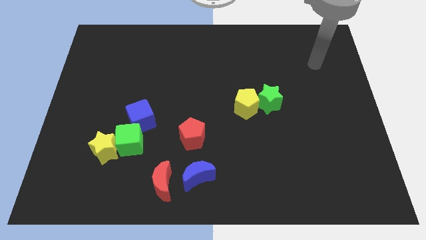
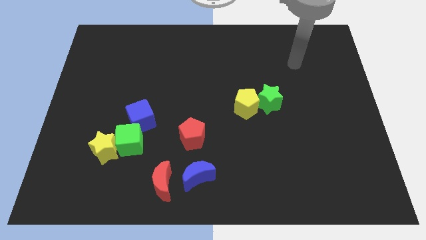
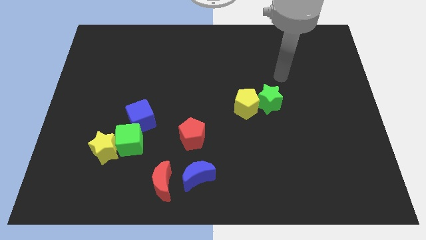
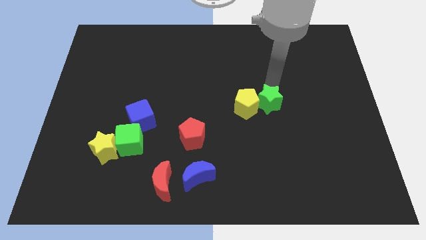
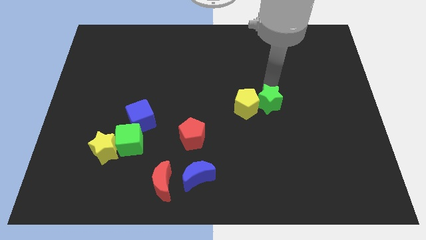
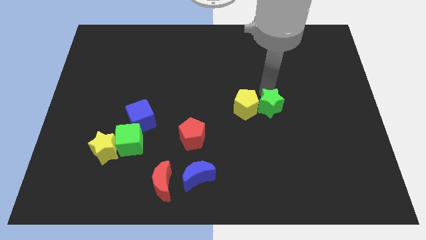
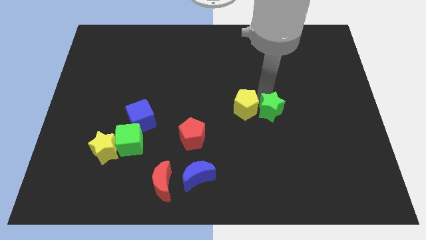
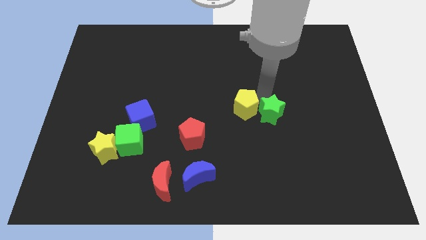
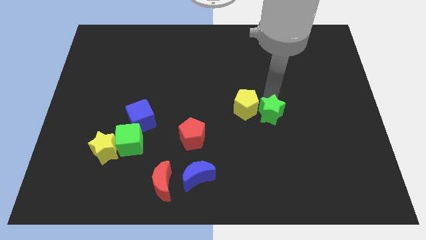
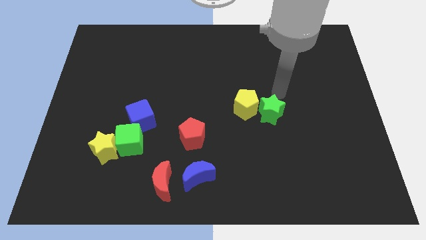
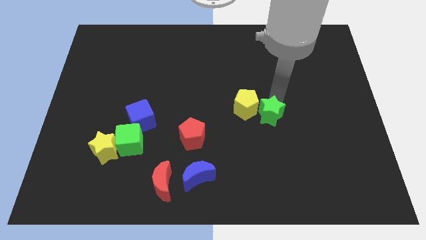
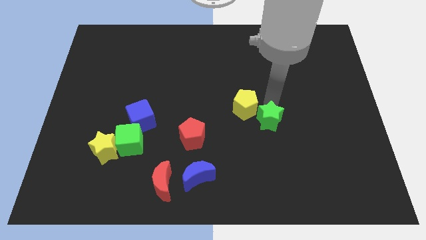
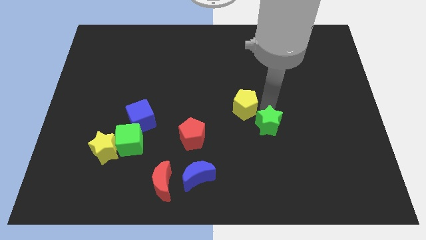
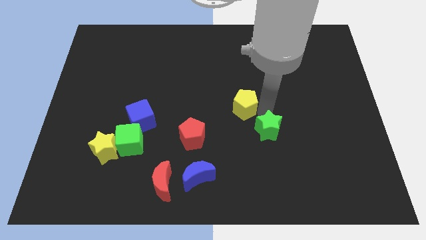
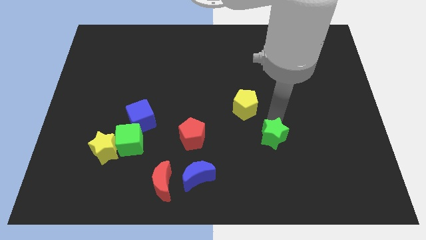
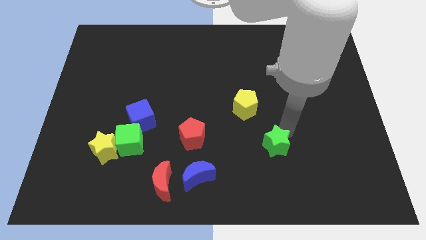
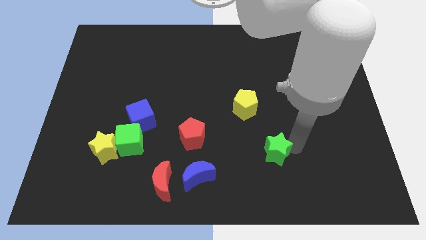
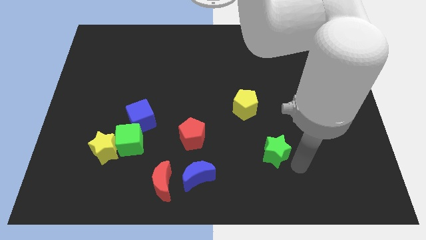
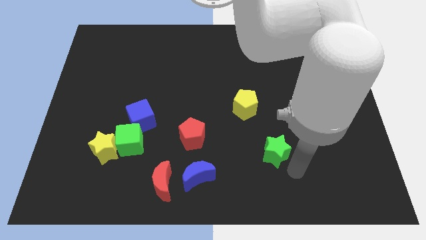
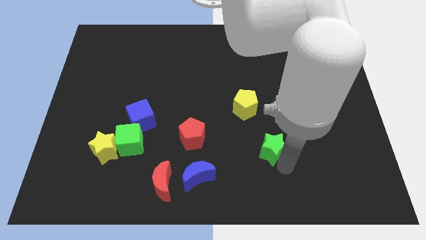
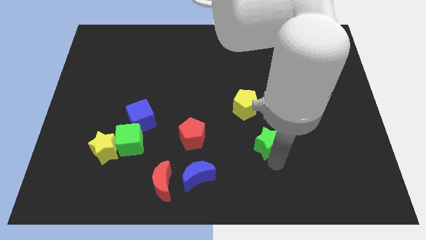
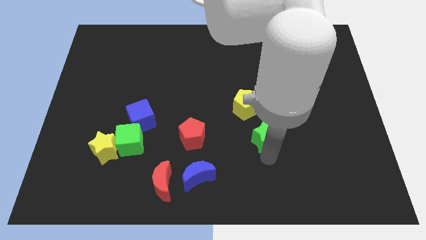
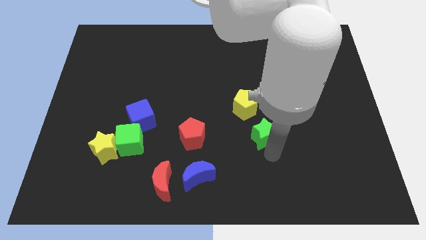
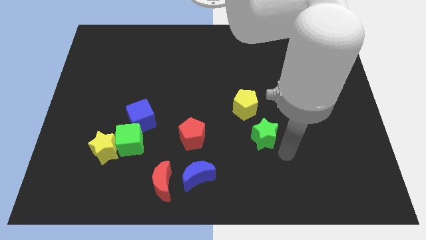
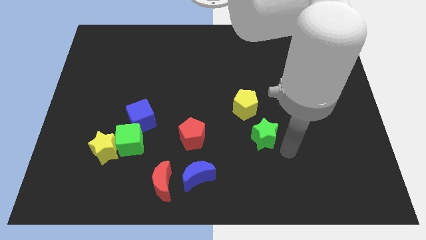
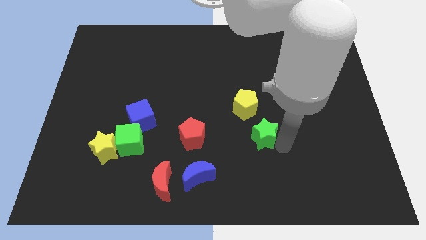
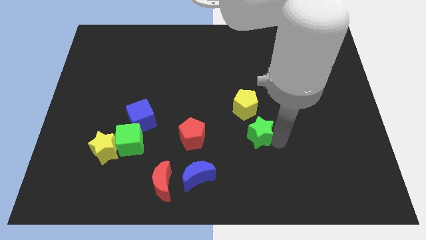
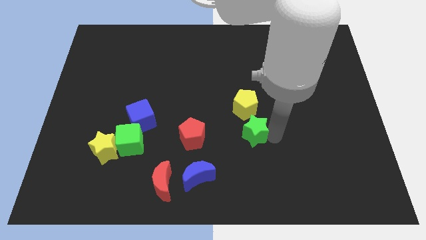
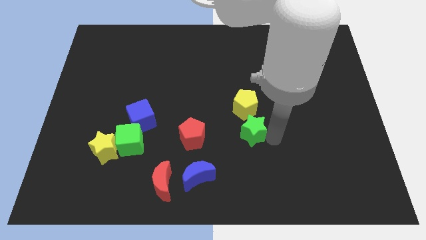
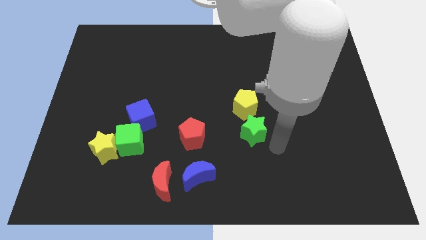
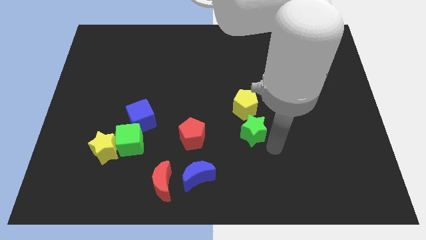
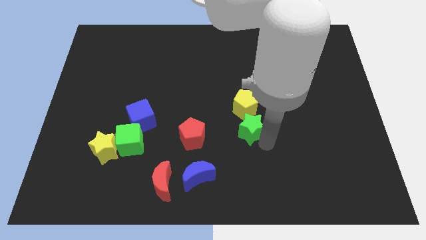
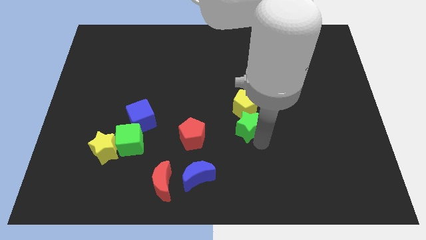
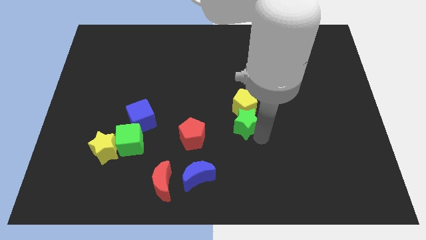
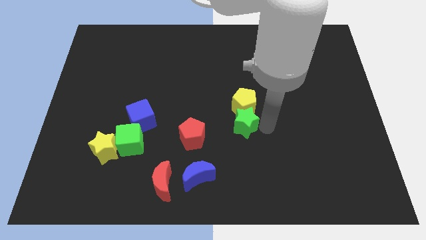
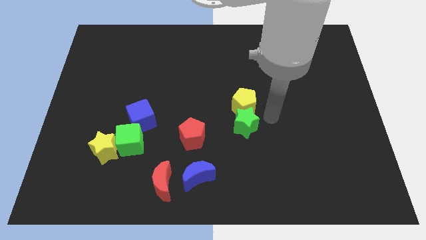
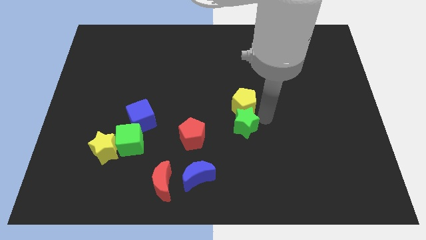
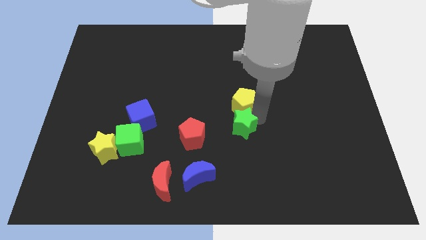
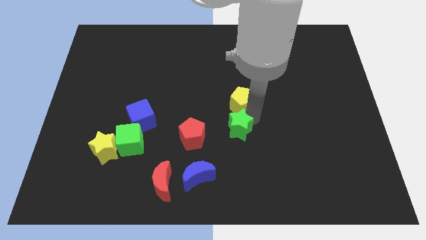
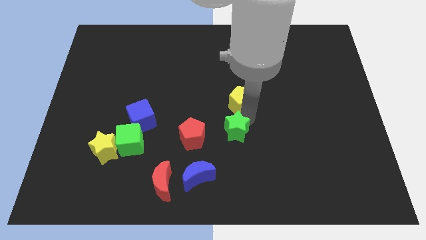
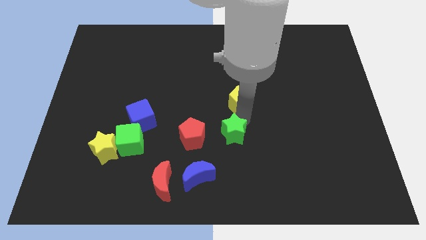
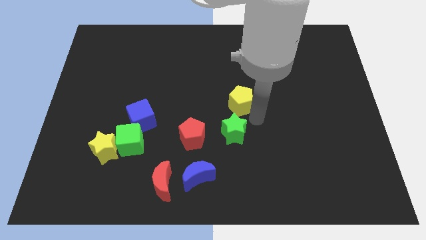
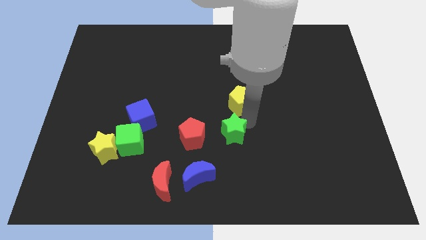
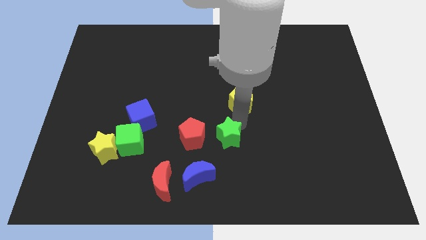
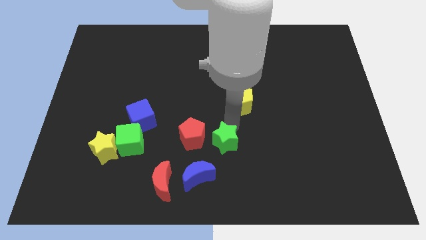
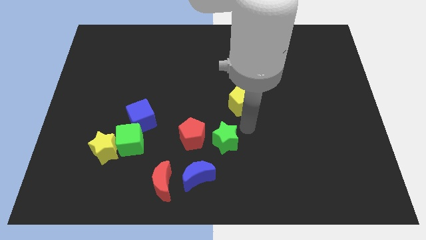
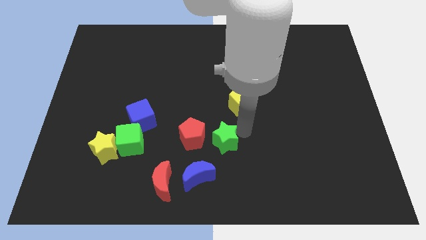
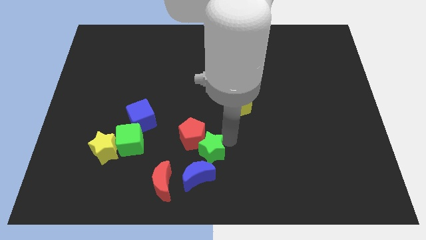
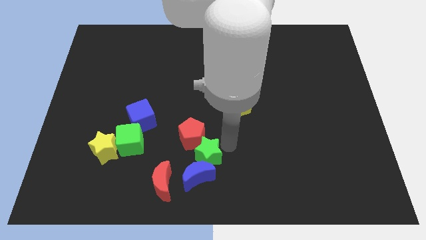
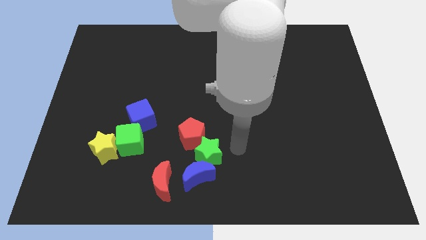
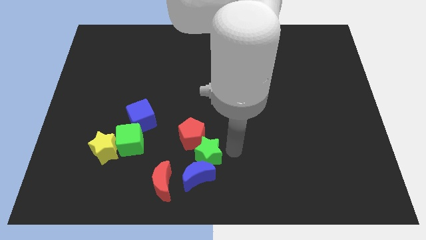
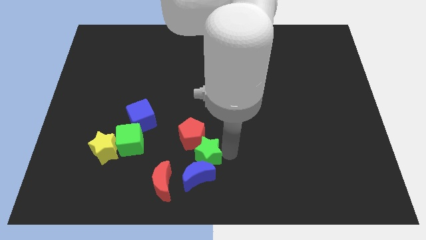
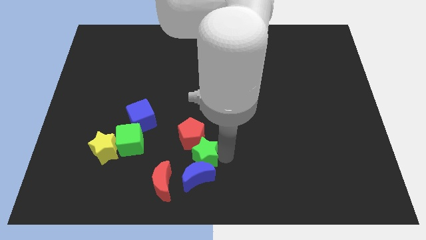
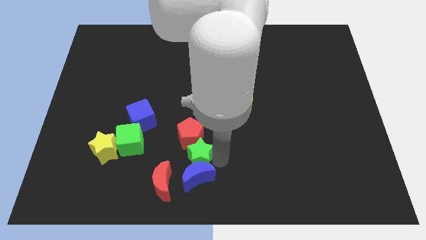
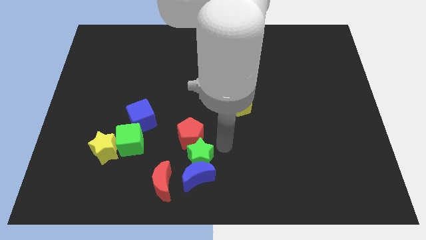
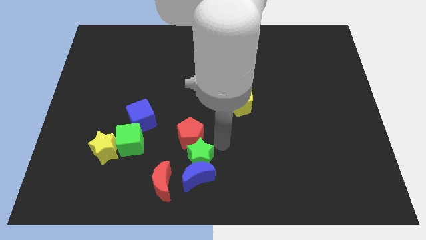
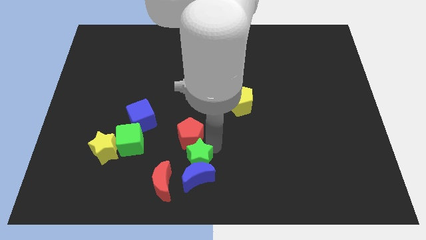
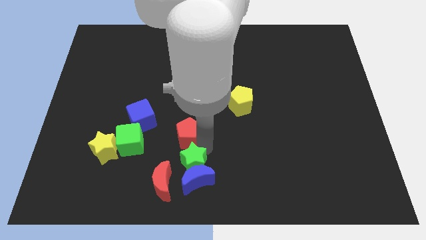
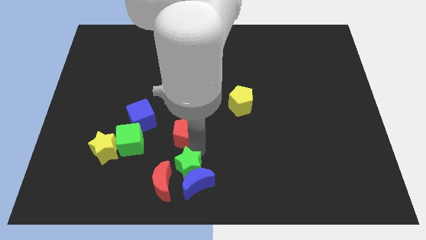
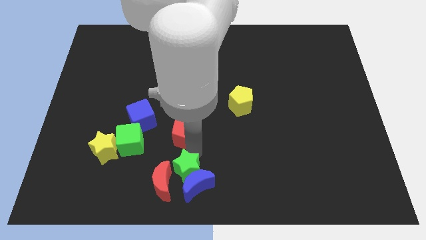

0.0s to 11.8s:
move the green star next to the red moon
